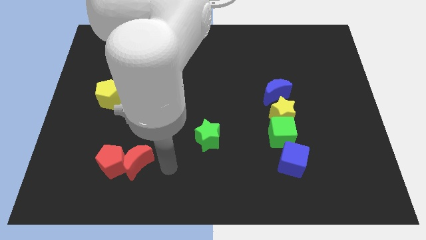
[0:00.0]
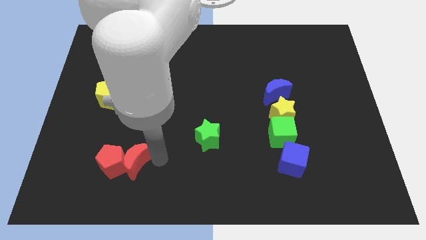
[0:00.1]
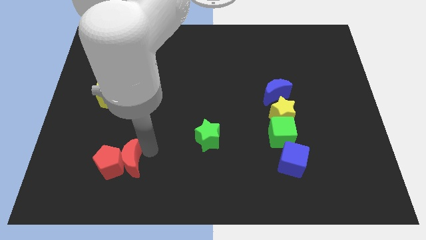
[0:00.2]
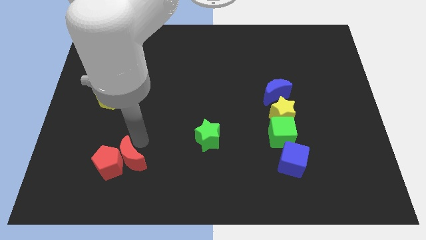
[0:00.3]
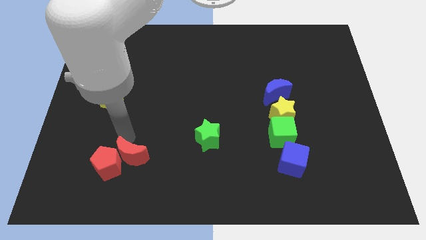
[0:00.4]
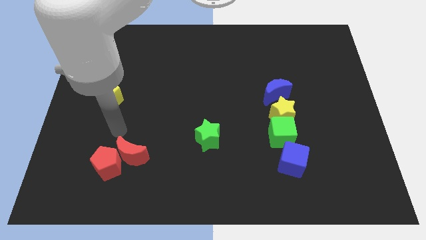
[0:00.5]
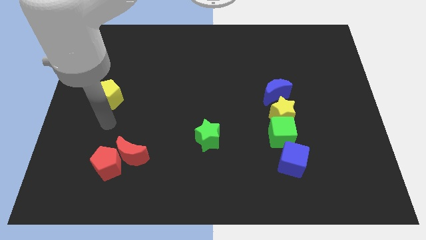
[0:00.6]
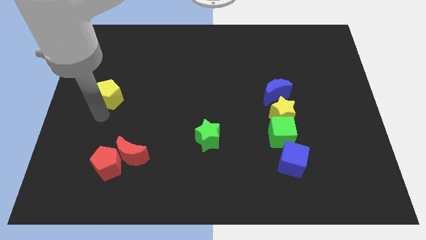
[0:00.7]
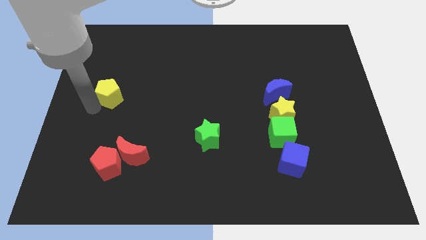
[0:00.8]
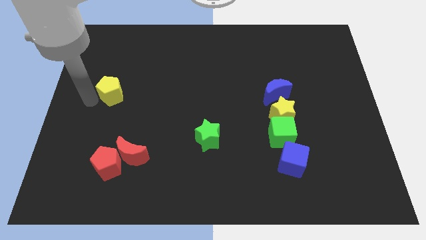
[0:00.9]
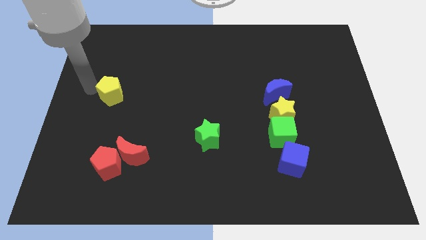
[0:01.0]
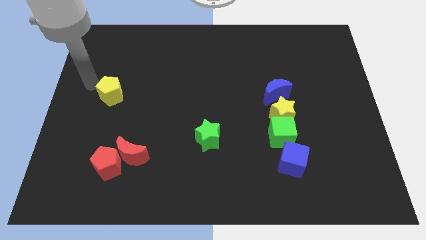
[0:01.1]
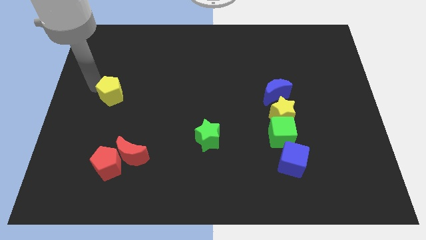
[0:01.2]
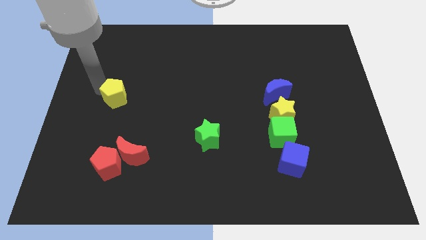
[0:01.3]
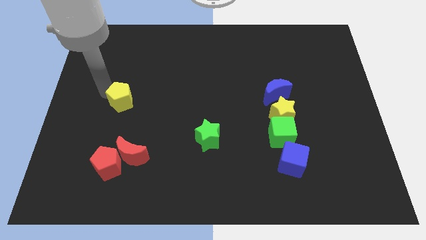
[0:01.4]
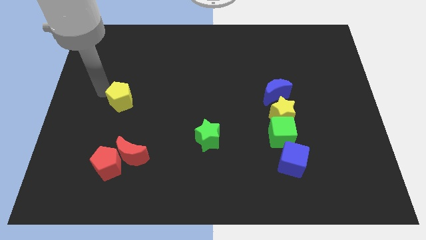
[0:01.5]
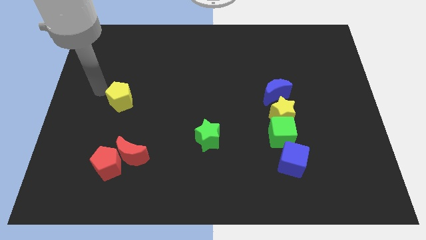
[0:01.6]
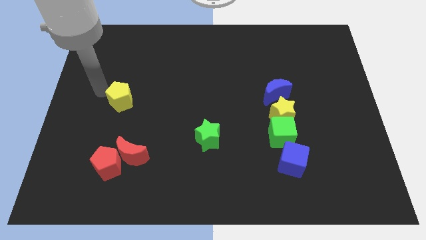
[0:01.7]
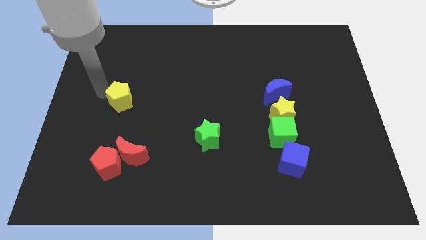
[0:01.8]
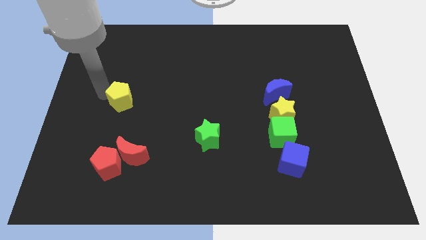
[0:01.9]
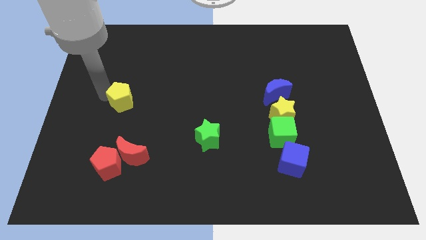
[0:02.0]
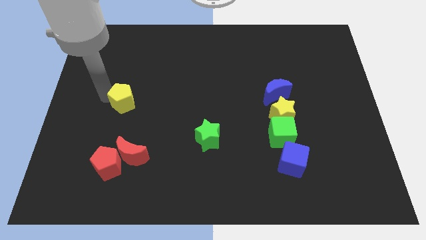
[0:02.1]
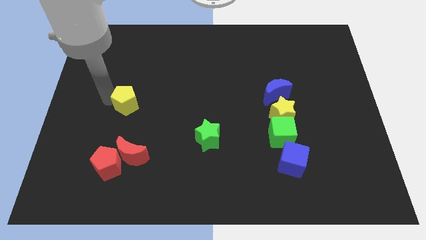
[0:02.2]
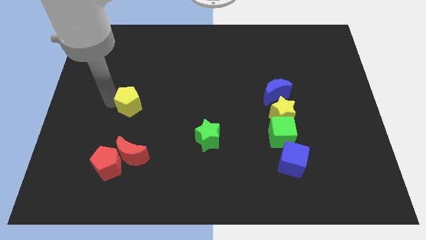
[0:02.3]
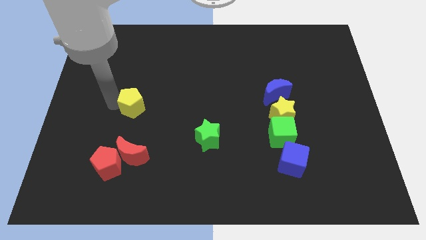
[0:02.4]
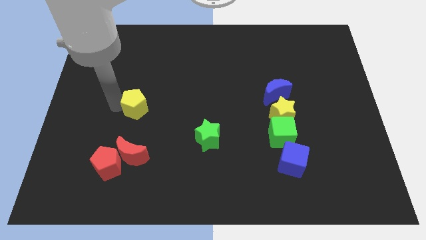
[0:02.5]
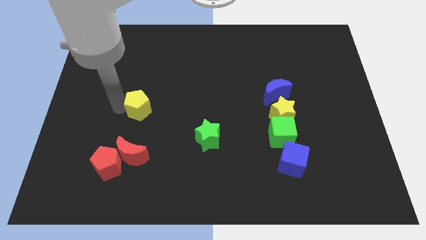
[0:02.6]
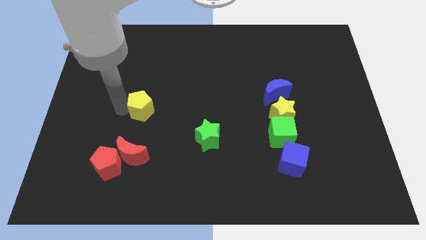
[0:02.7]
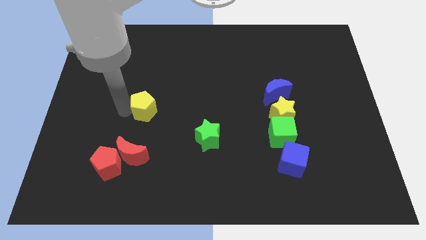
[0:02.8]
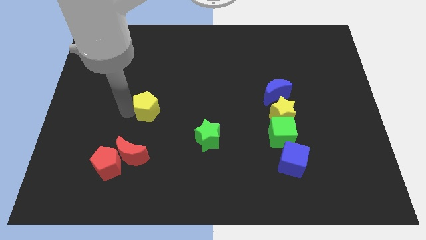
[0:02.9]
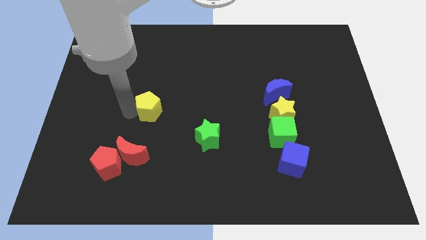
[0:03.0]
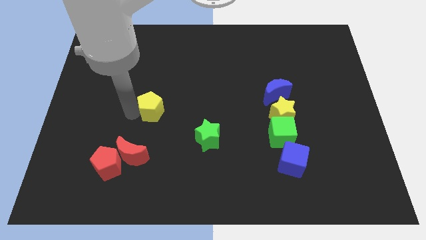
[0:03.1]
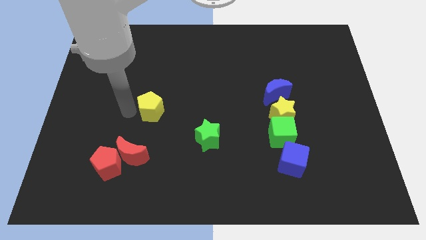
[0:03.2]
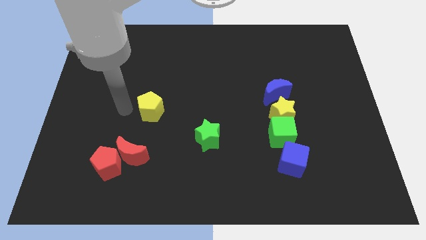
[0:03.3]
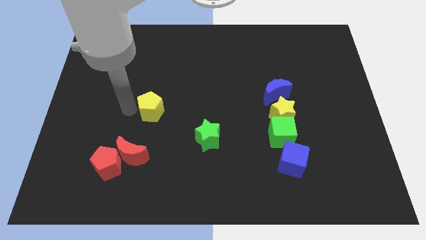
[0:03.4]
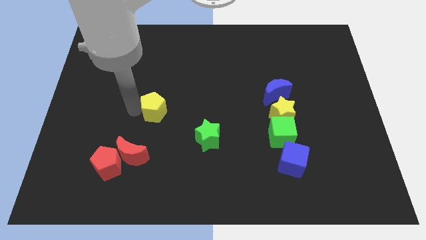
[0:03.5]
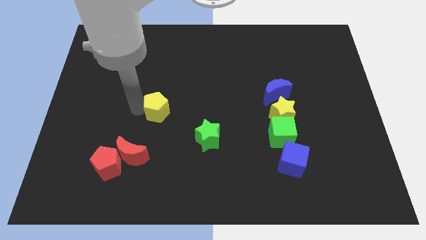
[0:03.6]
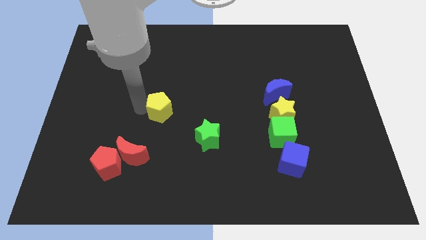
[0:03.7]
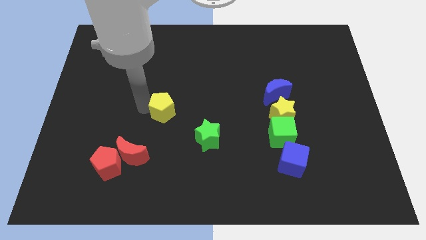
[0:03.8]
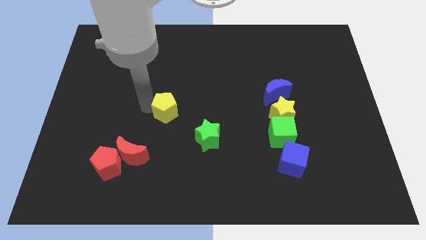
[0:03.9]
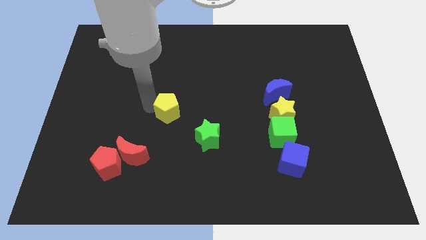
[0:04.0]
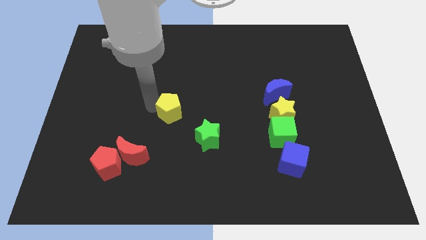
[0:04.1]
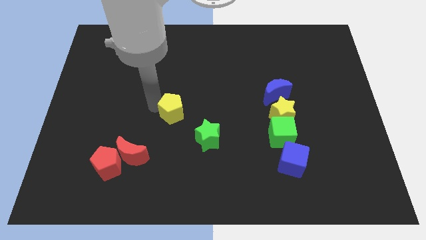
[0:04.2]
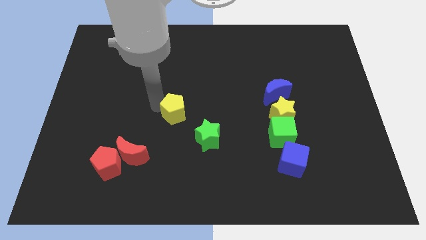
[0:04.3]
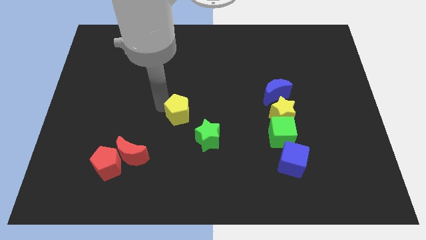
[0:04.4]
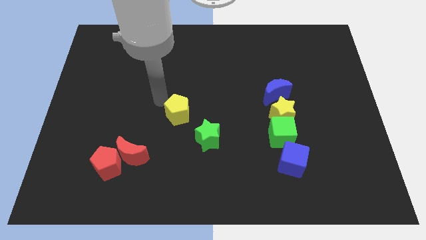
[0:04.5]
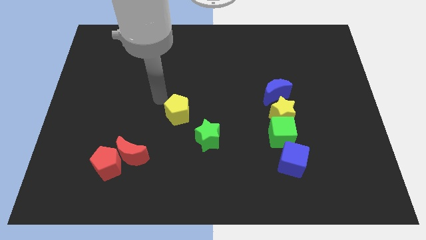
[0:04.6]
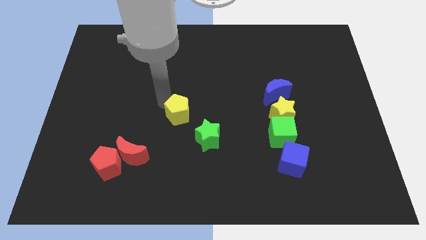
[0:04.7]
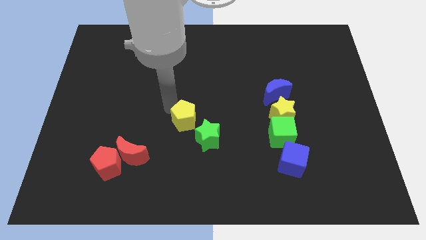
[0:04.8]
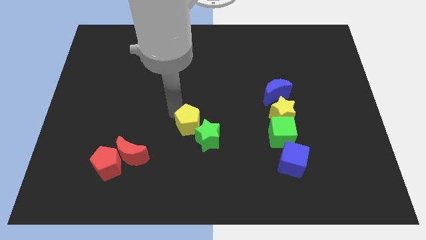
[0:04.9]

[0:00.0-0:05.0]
push the yellow pentagon close to the green star

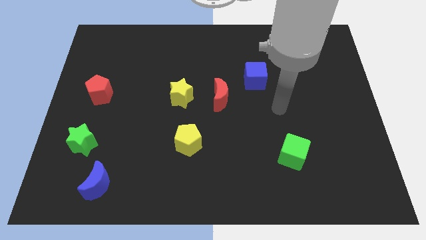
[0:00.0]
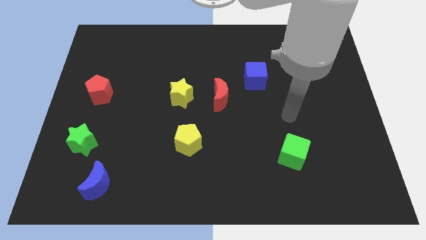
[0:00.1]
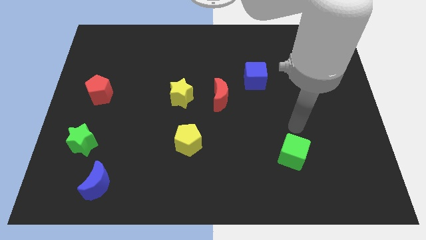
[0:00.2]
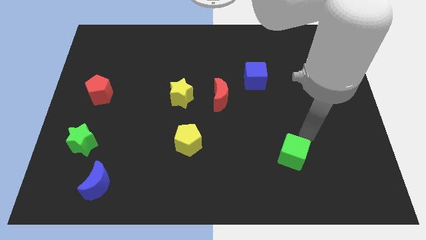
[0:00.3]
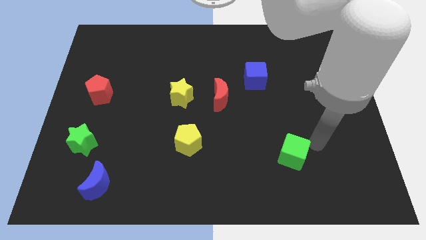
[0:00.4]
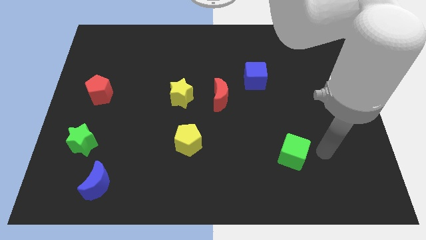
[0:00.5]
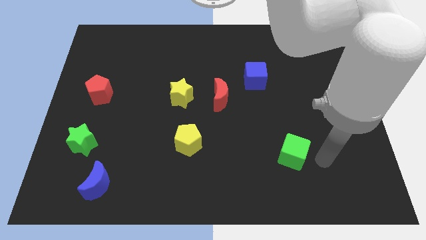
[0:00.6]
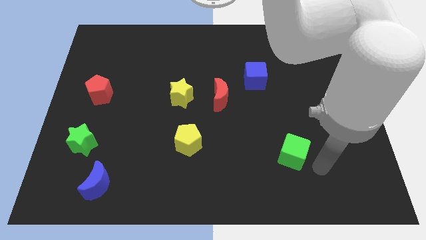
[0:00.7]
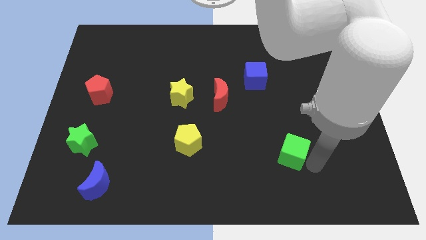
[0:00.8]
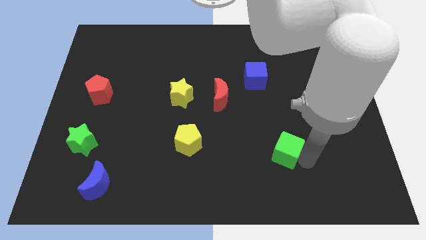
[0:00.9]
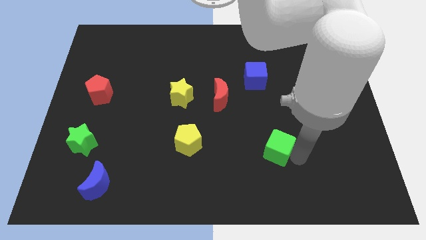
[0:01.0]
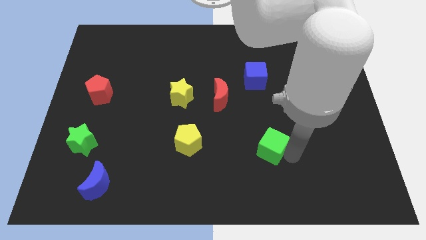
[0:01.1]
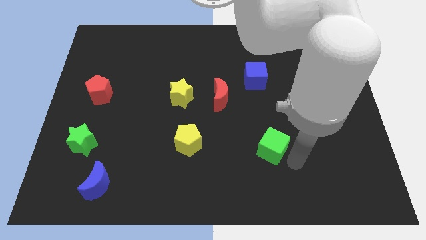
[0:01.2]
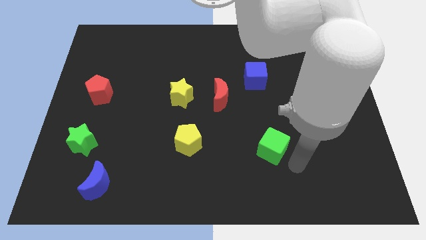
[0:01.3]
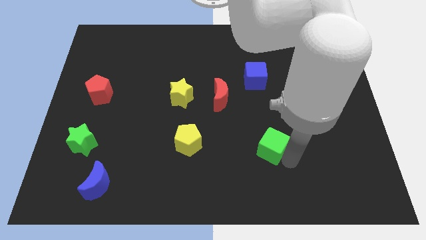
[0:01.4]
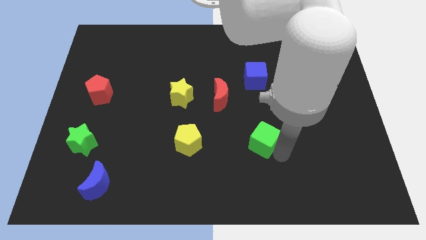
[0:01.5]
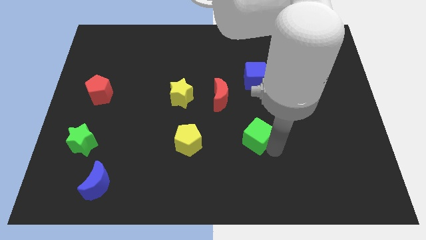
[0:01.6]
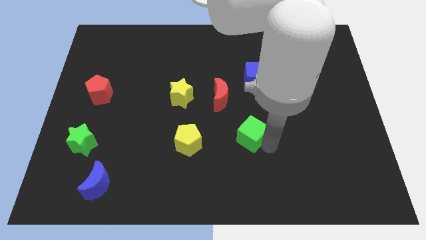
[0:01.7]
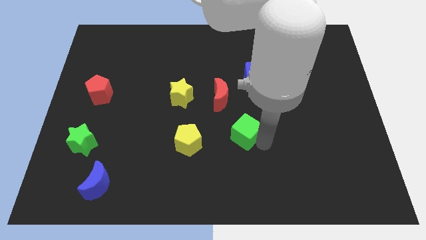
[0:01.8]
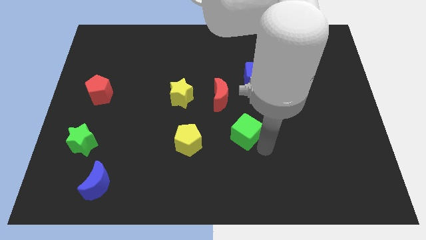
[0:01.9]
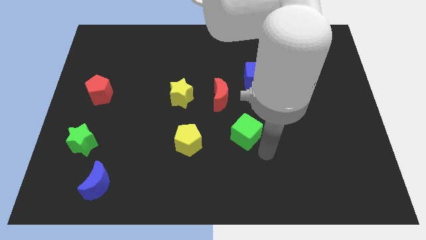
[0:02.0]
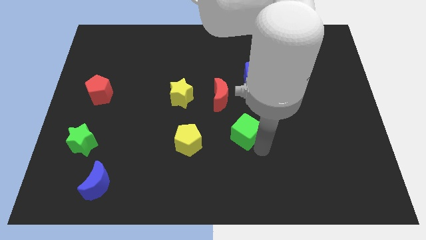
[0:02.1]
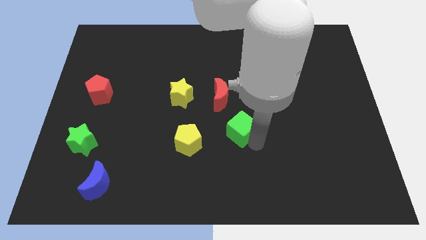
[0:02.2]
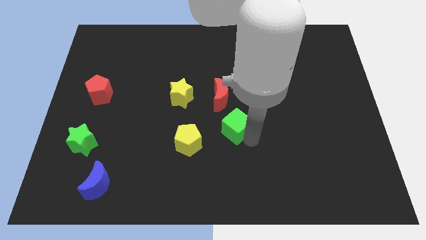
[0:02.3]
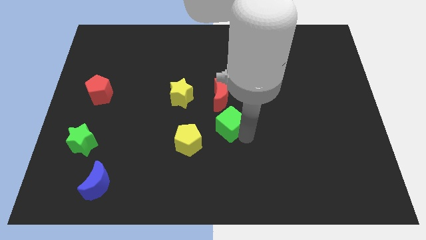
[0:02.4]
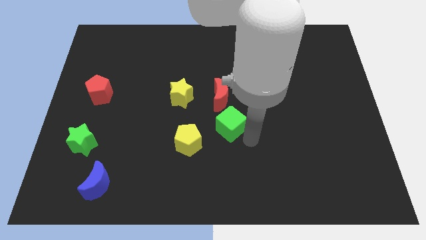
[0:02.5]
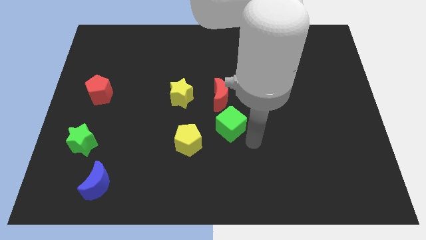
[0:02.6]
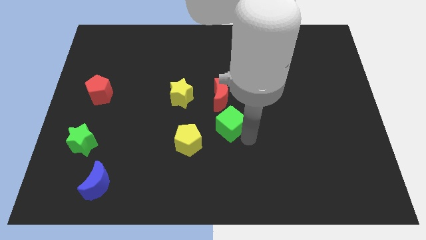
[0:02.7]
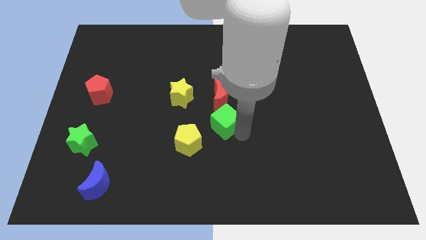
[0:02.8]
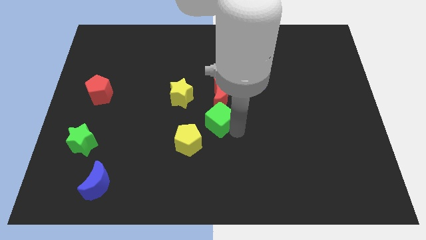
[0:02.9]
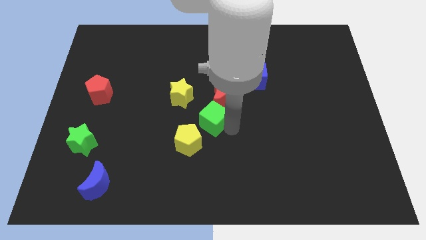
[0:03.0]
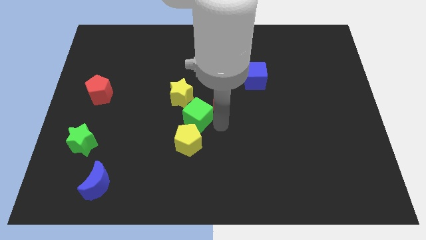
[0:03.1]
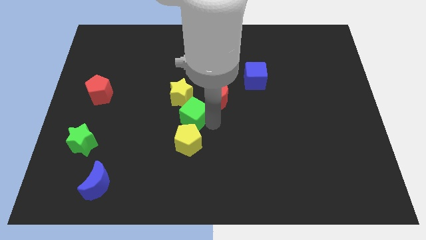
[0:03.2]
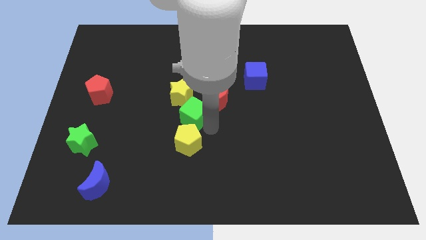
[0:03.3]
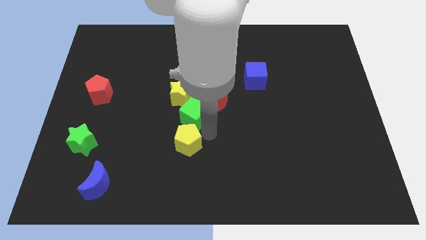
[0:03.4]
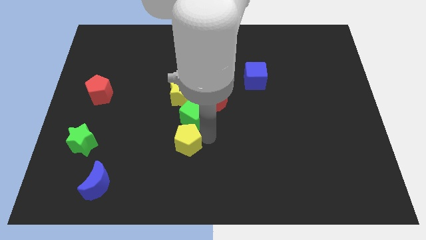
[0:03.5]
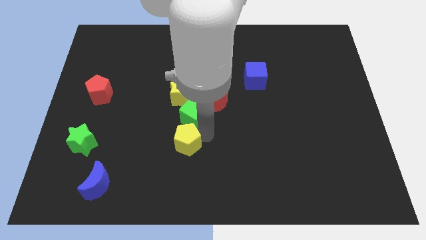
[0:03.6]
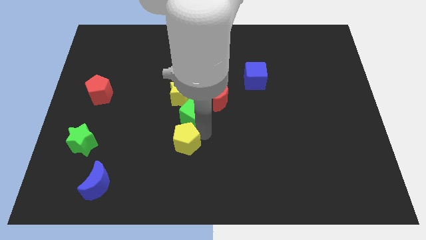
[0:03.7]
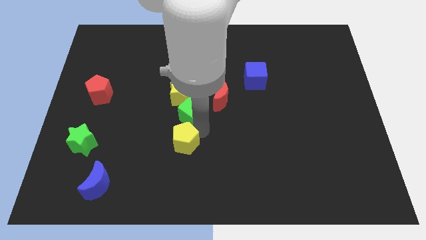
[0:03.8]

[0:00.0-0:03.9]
push the green cube next to the yellow star
